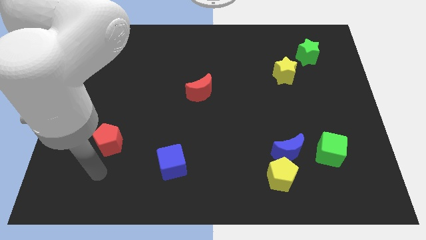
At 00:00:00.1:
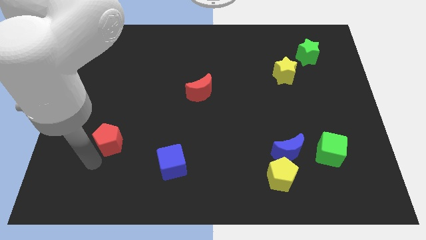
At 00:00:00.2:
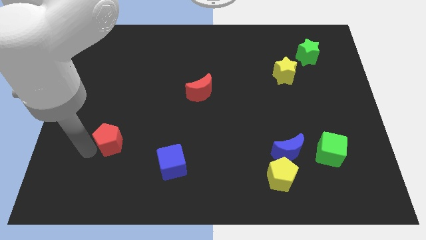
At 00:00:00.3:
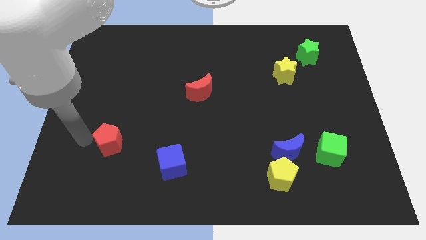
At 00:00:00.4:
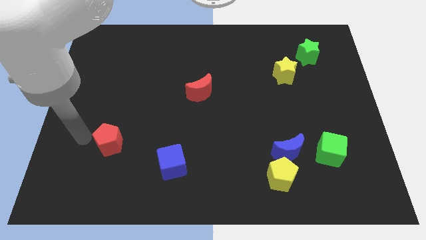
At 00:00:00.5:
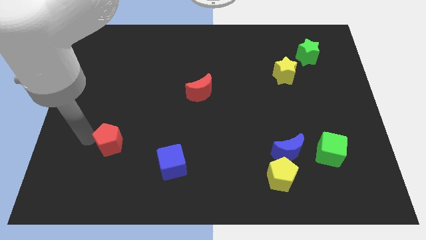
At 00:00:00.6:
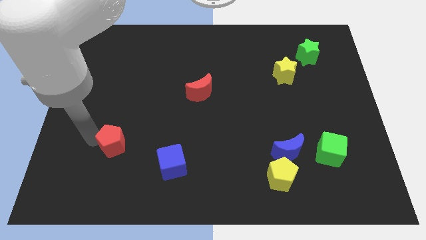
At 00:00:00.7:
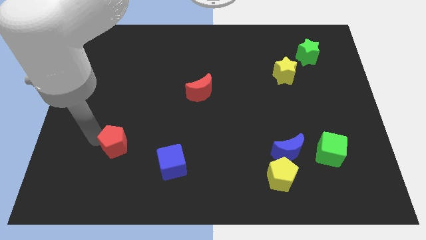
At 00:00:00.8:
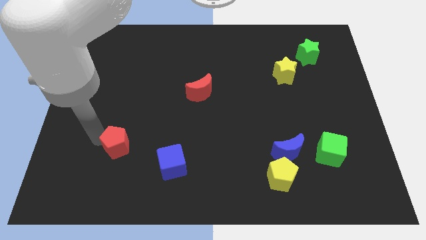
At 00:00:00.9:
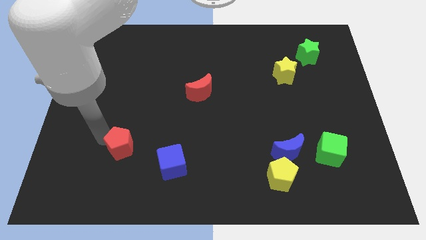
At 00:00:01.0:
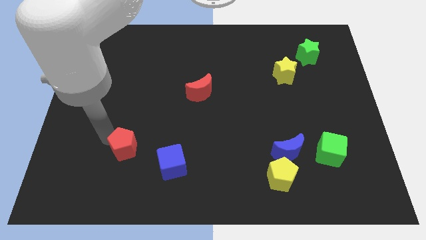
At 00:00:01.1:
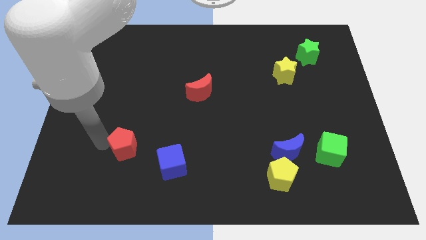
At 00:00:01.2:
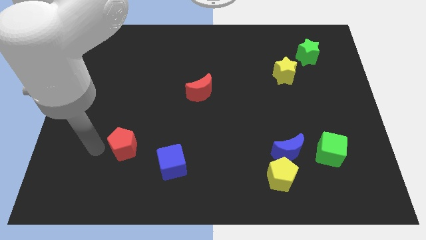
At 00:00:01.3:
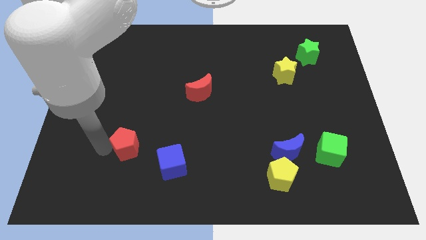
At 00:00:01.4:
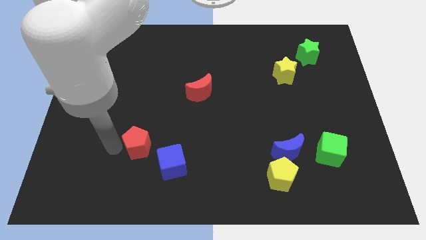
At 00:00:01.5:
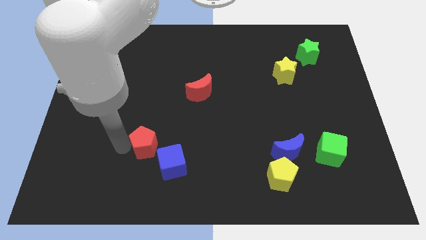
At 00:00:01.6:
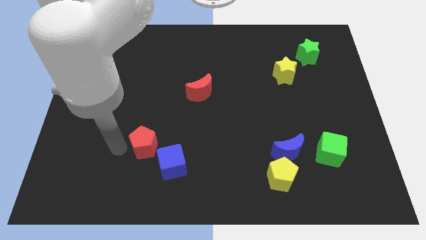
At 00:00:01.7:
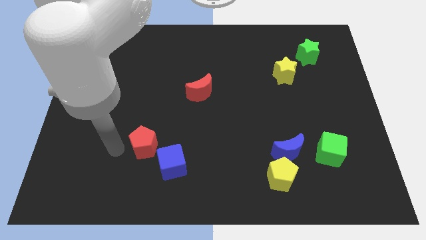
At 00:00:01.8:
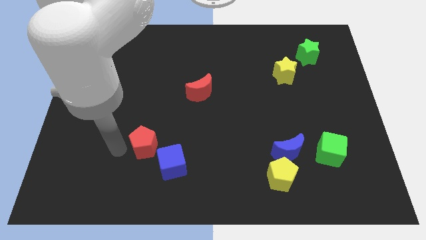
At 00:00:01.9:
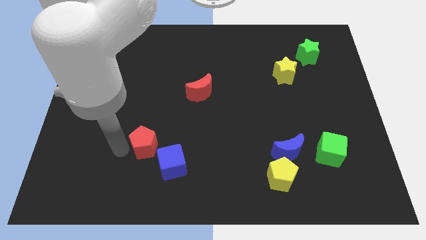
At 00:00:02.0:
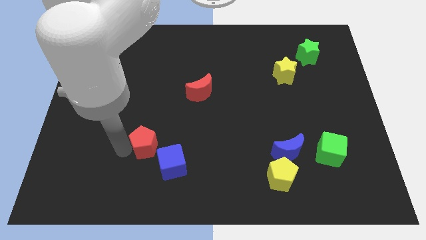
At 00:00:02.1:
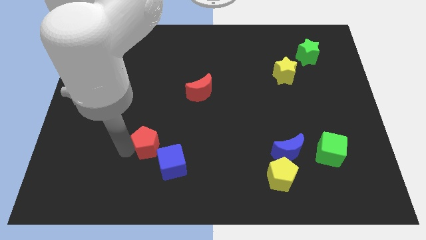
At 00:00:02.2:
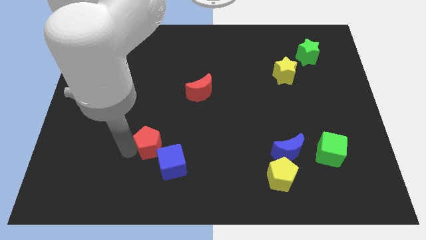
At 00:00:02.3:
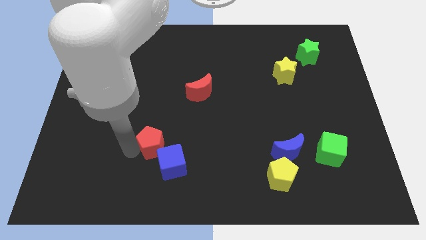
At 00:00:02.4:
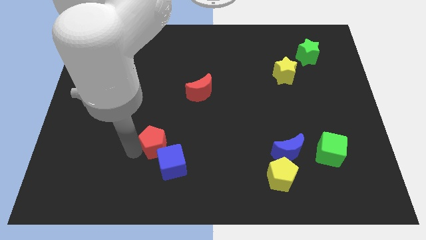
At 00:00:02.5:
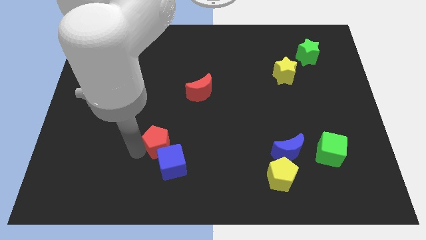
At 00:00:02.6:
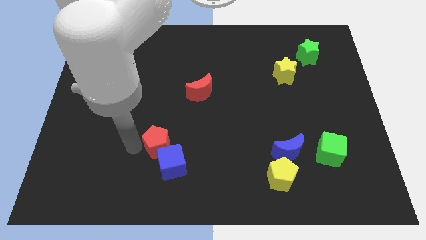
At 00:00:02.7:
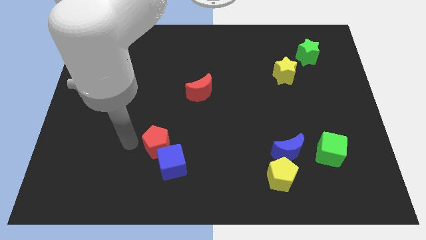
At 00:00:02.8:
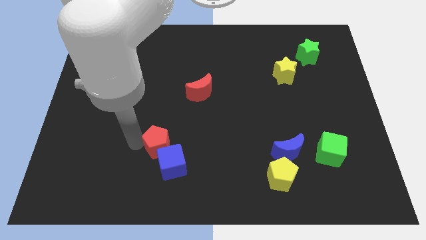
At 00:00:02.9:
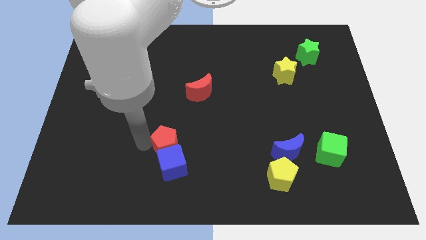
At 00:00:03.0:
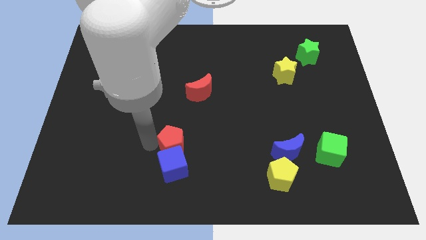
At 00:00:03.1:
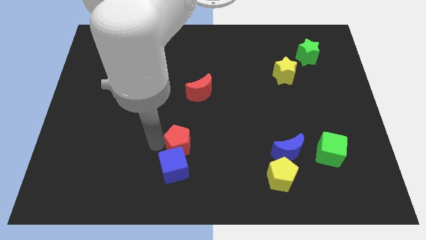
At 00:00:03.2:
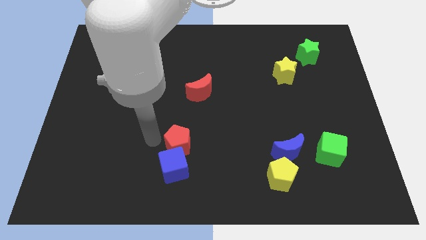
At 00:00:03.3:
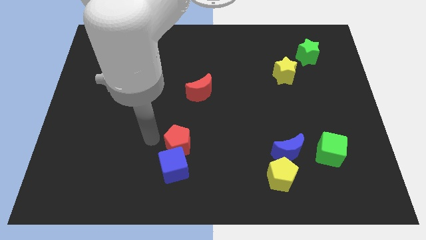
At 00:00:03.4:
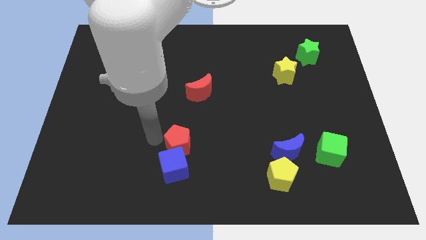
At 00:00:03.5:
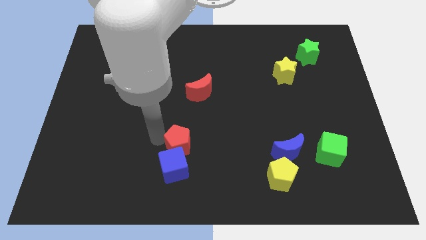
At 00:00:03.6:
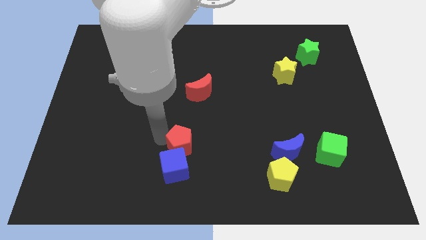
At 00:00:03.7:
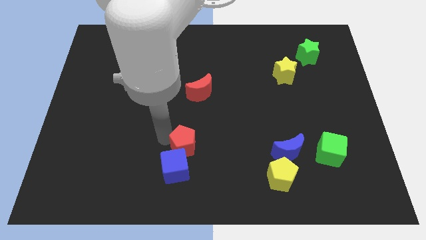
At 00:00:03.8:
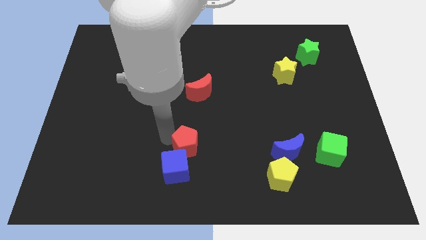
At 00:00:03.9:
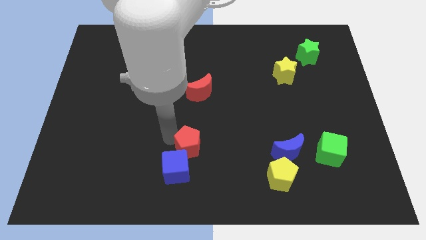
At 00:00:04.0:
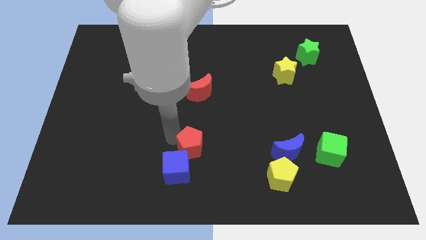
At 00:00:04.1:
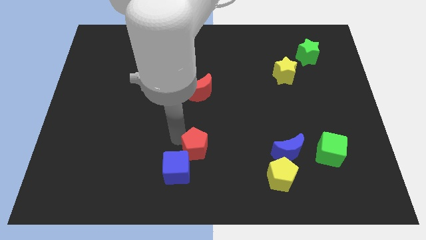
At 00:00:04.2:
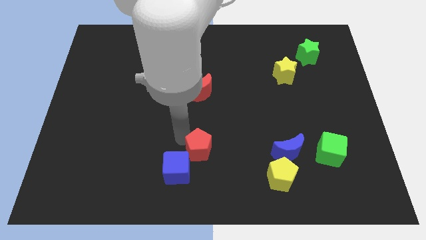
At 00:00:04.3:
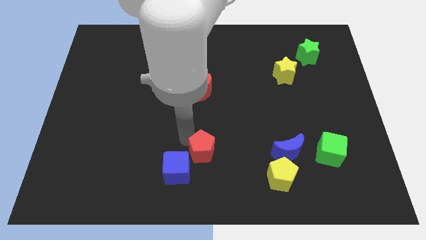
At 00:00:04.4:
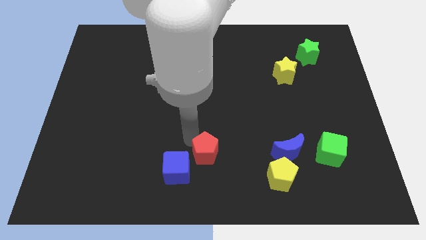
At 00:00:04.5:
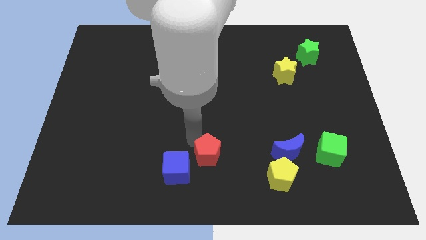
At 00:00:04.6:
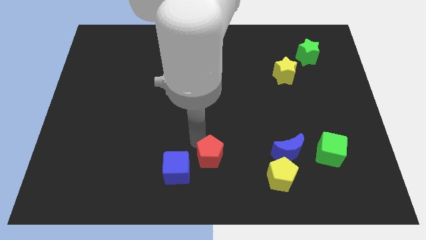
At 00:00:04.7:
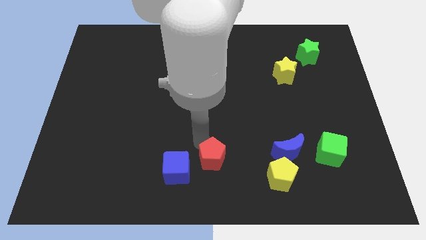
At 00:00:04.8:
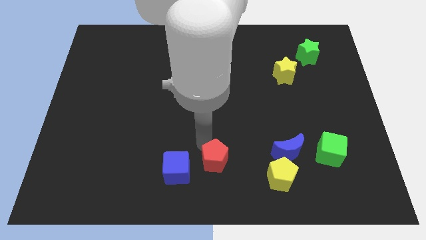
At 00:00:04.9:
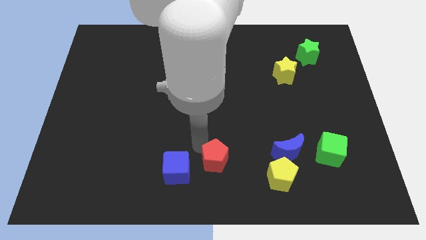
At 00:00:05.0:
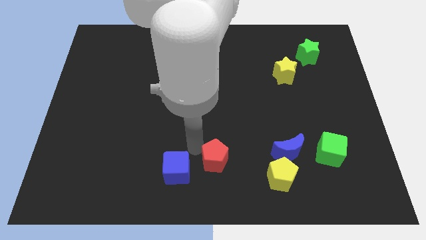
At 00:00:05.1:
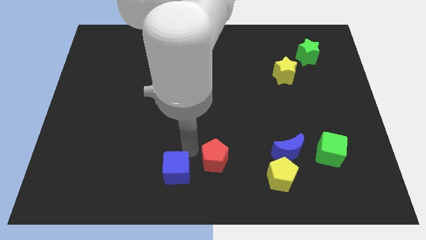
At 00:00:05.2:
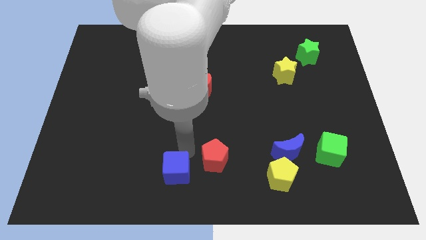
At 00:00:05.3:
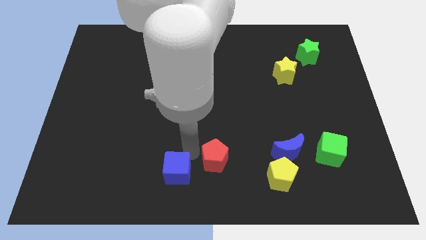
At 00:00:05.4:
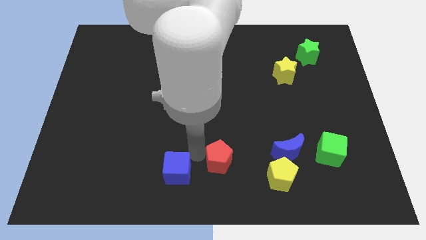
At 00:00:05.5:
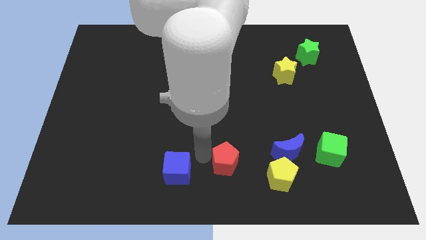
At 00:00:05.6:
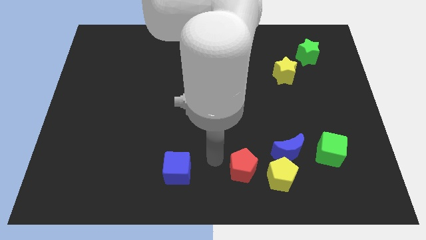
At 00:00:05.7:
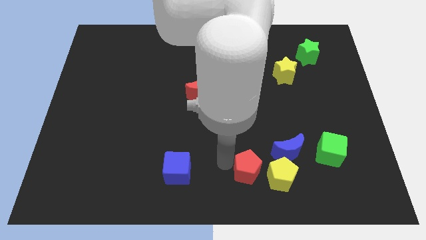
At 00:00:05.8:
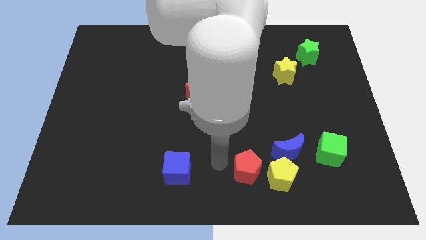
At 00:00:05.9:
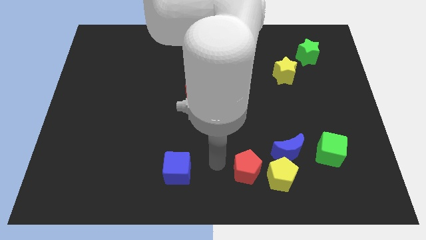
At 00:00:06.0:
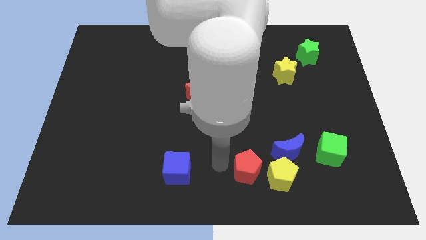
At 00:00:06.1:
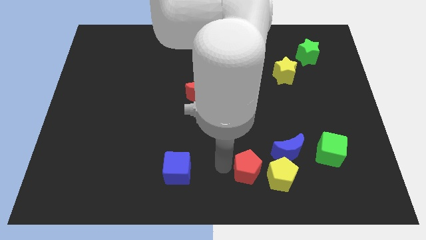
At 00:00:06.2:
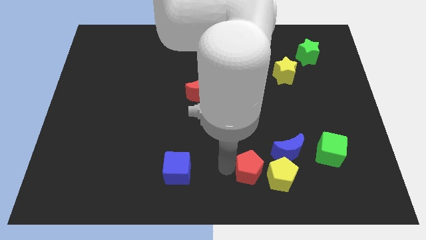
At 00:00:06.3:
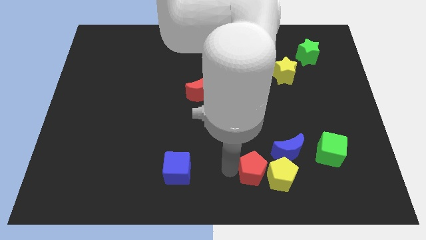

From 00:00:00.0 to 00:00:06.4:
put the red pentagon next to the yellow pentagon
